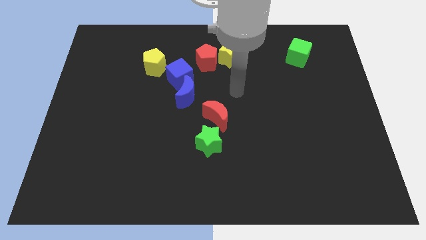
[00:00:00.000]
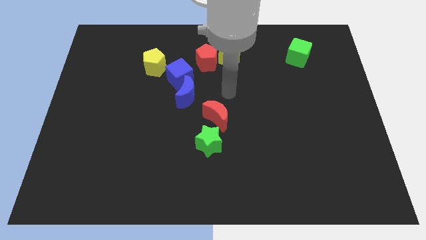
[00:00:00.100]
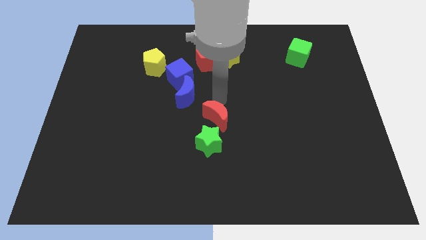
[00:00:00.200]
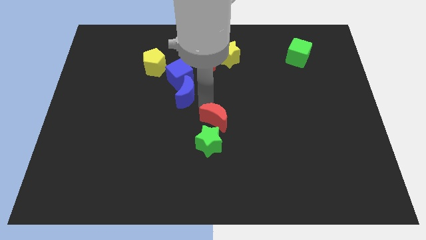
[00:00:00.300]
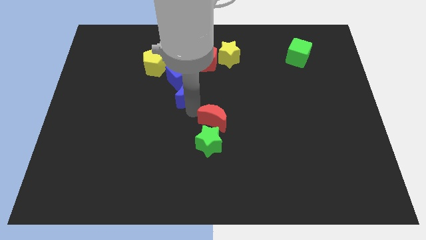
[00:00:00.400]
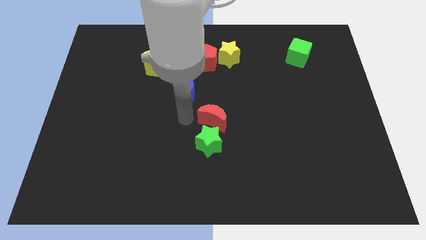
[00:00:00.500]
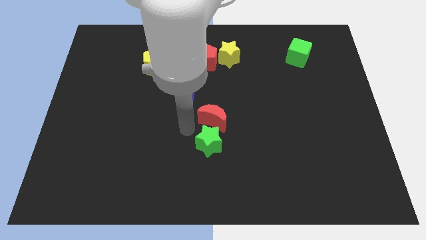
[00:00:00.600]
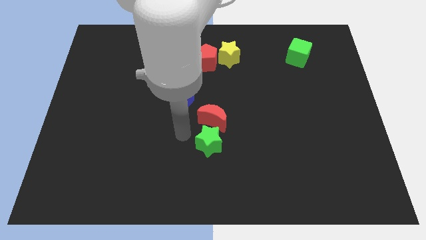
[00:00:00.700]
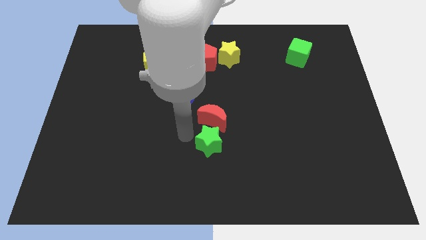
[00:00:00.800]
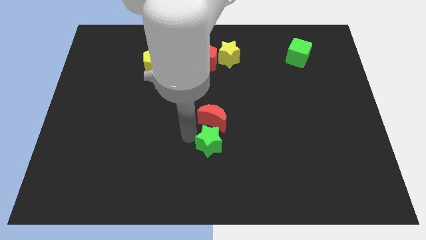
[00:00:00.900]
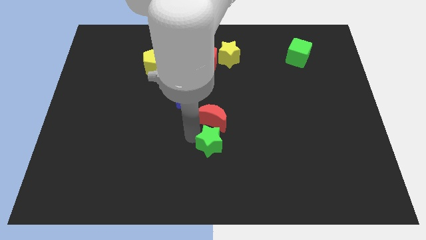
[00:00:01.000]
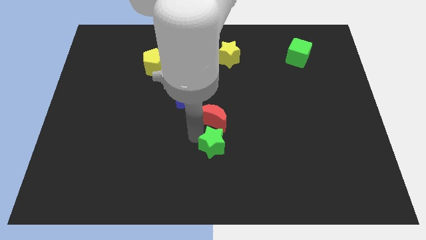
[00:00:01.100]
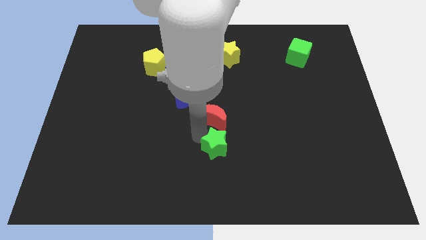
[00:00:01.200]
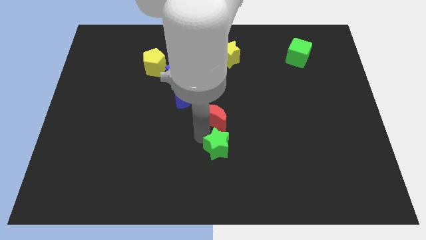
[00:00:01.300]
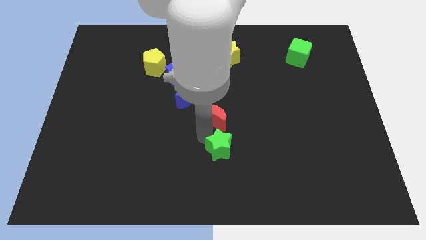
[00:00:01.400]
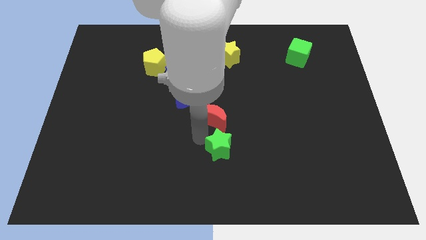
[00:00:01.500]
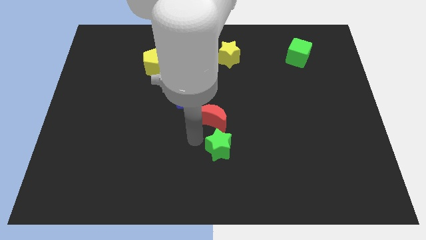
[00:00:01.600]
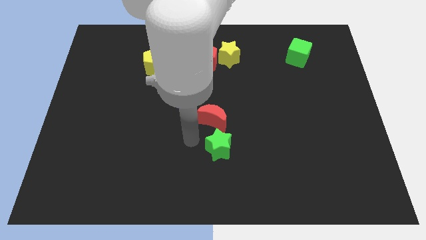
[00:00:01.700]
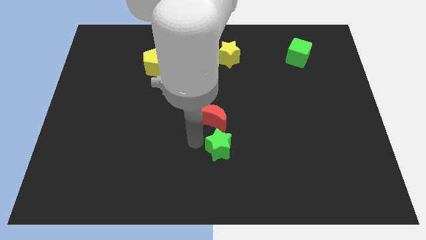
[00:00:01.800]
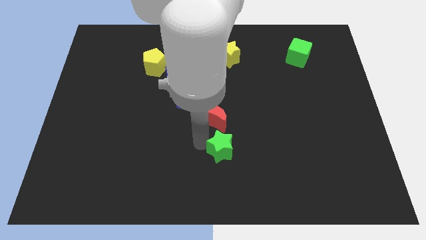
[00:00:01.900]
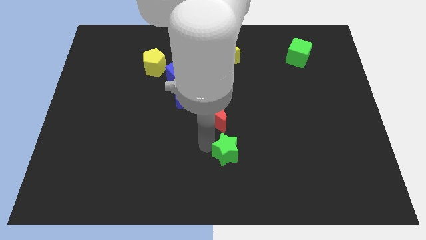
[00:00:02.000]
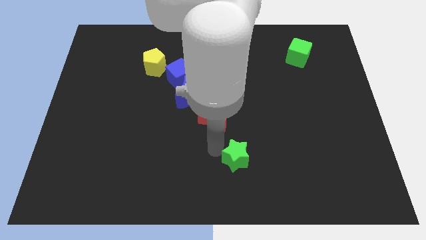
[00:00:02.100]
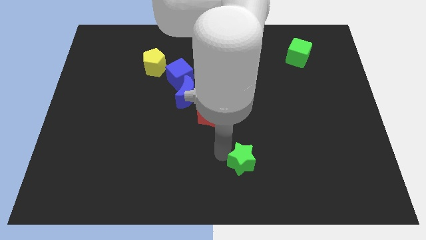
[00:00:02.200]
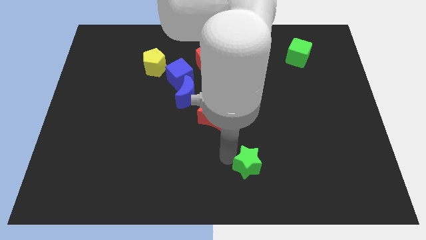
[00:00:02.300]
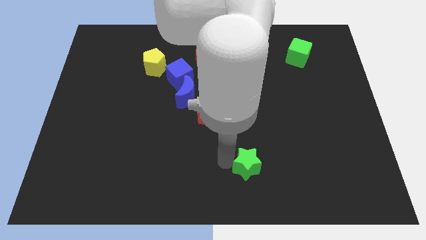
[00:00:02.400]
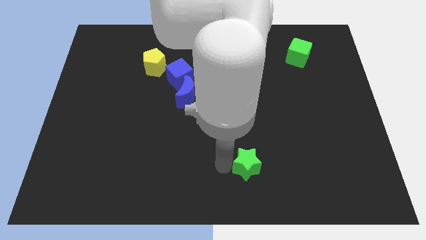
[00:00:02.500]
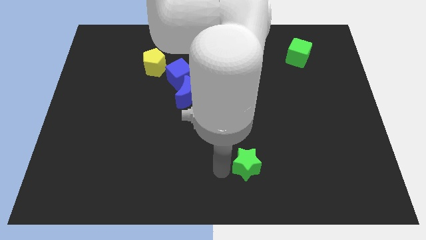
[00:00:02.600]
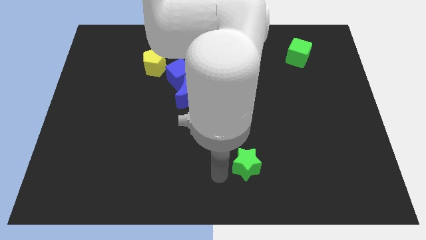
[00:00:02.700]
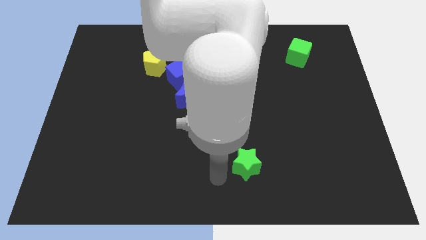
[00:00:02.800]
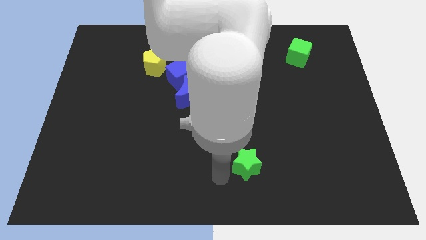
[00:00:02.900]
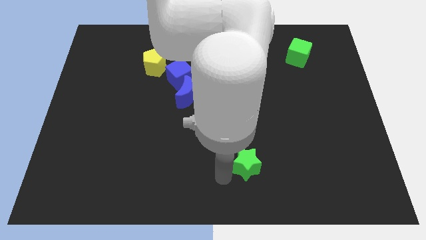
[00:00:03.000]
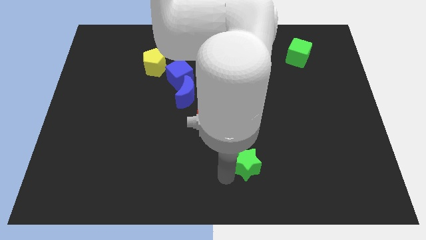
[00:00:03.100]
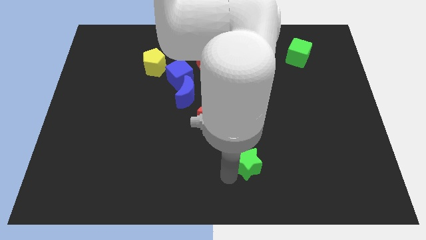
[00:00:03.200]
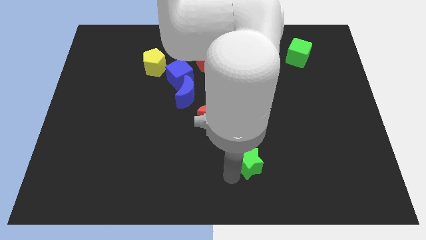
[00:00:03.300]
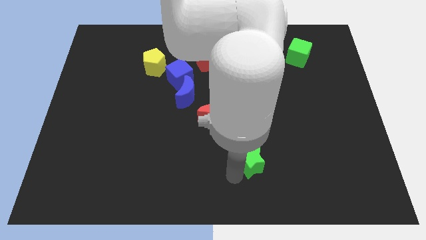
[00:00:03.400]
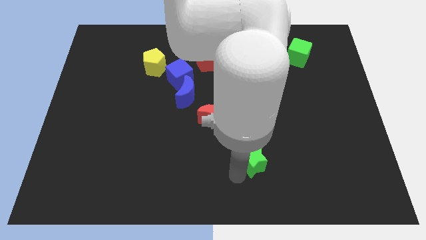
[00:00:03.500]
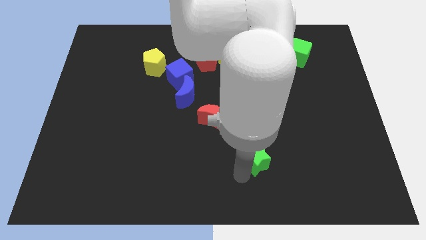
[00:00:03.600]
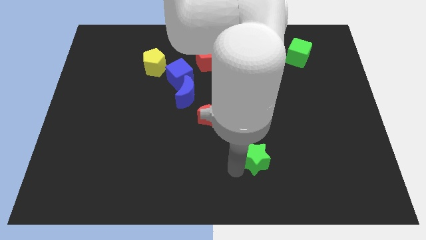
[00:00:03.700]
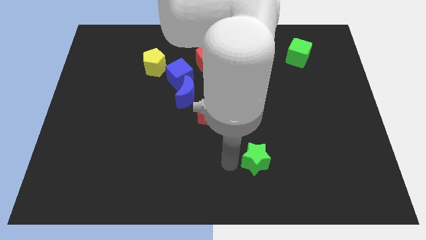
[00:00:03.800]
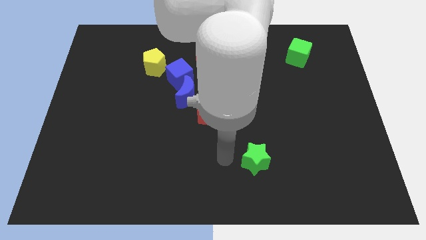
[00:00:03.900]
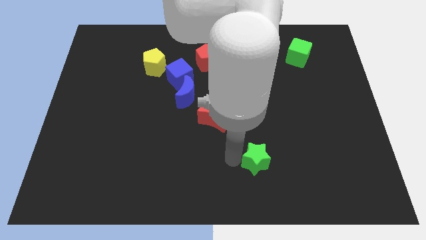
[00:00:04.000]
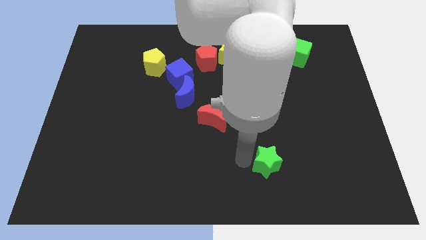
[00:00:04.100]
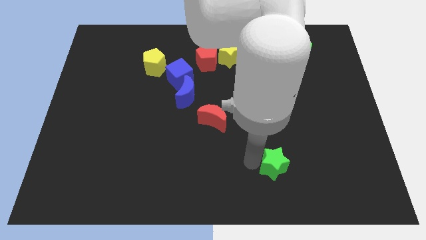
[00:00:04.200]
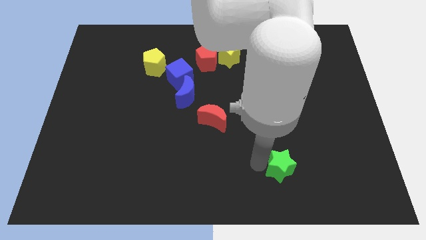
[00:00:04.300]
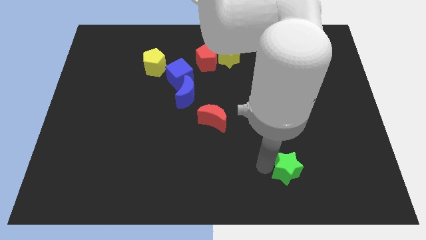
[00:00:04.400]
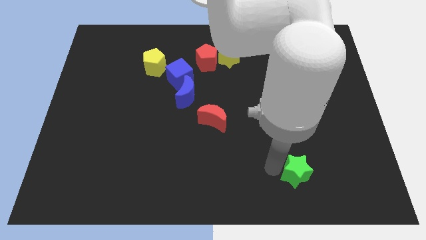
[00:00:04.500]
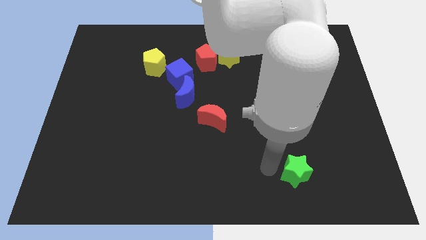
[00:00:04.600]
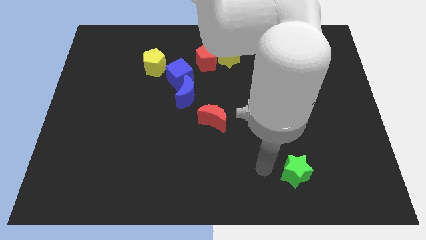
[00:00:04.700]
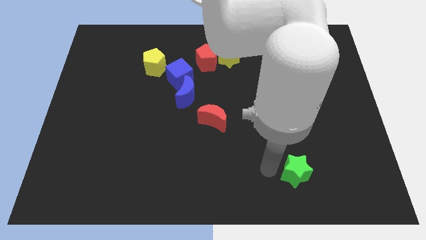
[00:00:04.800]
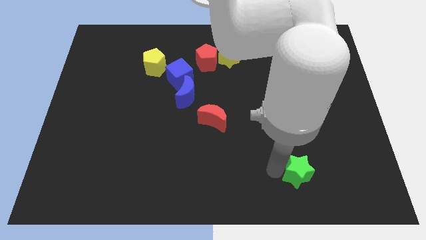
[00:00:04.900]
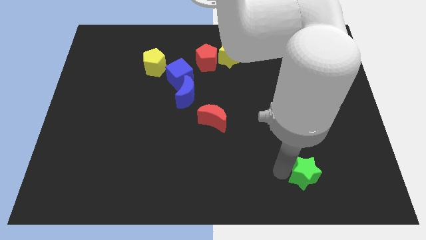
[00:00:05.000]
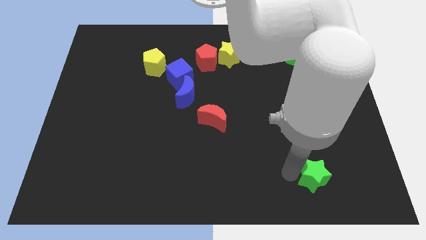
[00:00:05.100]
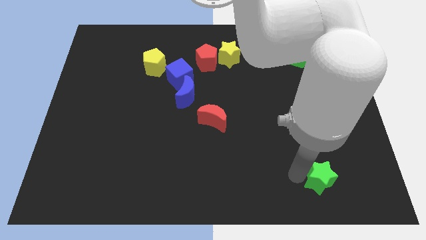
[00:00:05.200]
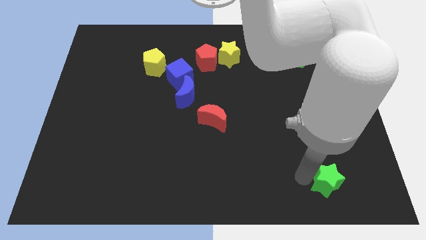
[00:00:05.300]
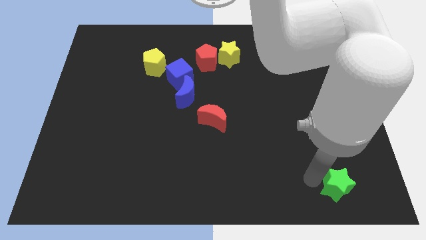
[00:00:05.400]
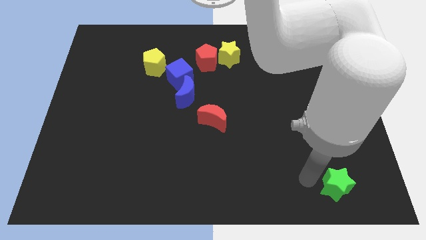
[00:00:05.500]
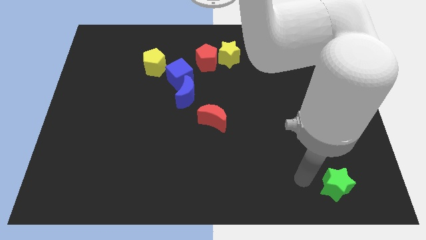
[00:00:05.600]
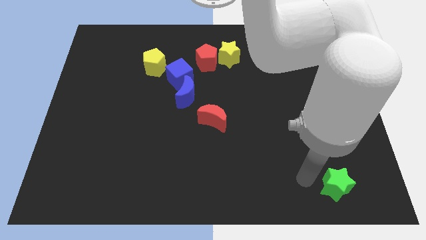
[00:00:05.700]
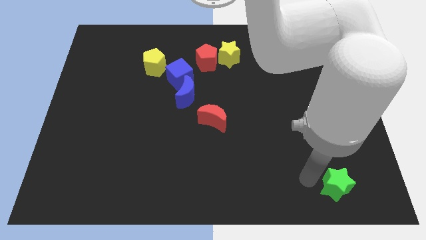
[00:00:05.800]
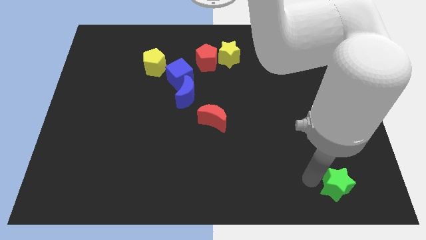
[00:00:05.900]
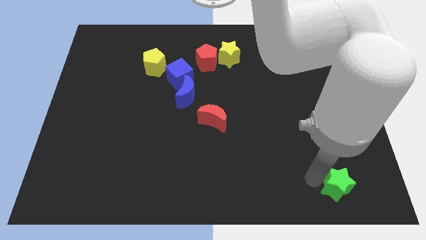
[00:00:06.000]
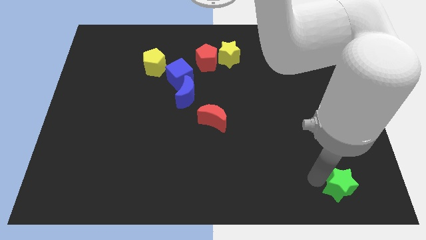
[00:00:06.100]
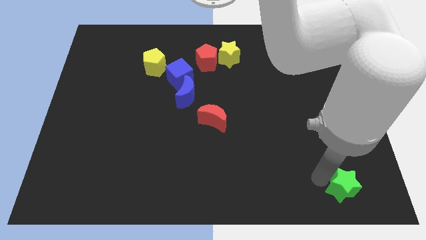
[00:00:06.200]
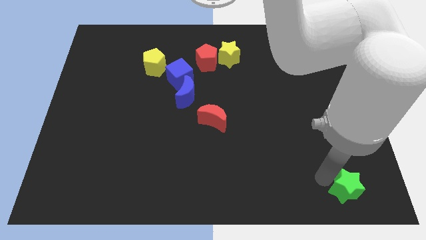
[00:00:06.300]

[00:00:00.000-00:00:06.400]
move the green star to the lower right corner
